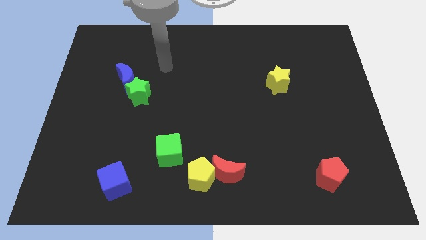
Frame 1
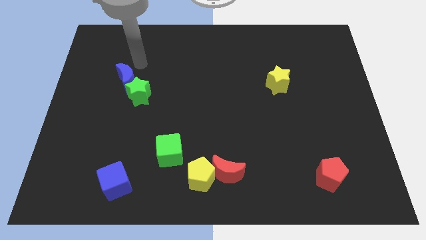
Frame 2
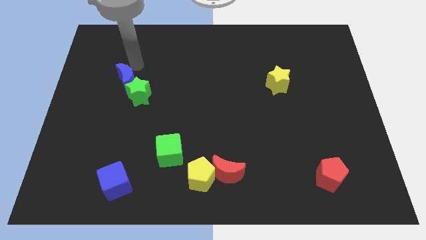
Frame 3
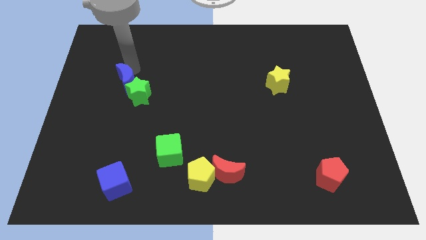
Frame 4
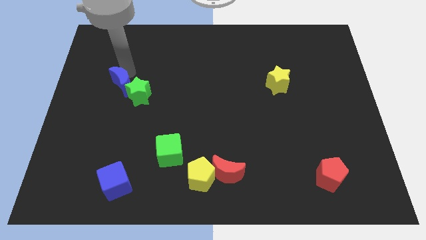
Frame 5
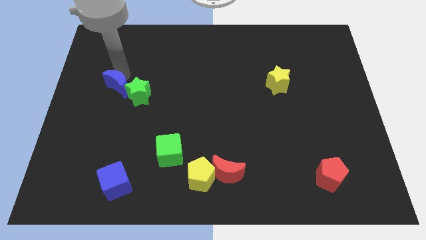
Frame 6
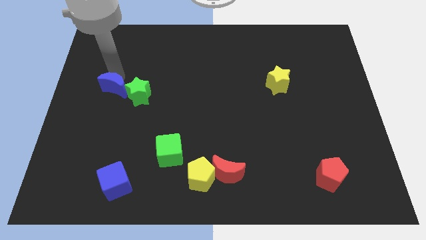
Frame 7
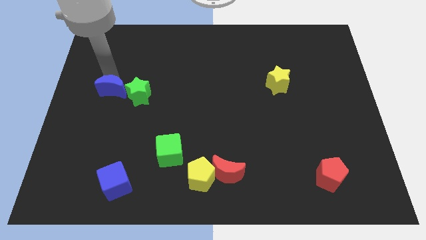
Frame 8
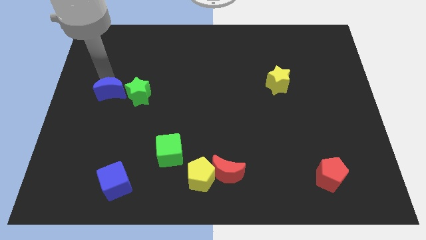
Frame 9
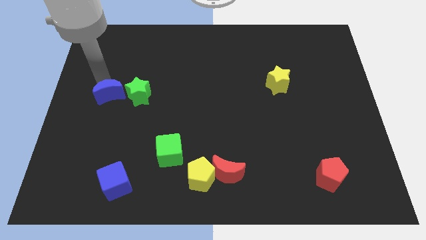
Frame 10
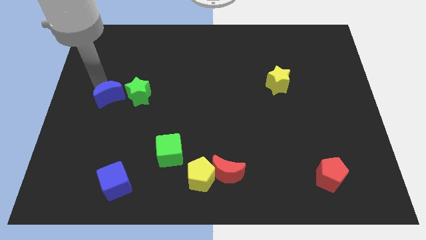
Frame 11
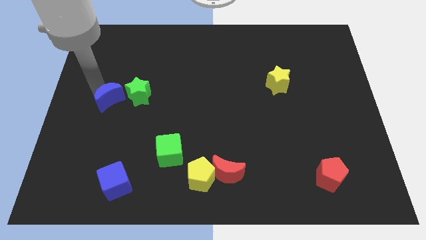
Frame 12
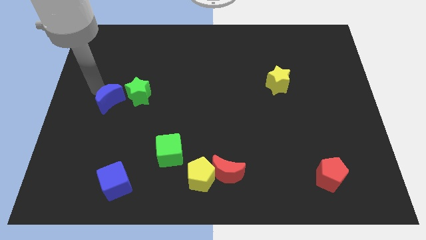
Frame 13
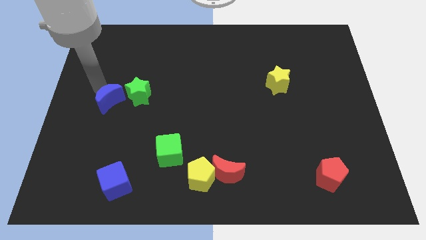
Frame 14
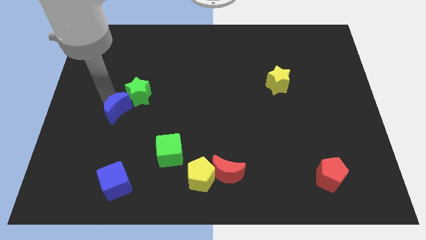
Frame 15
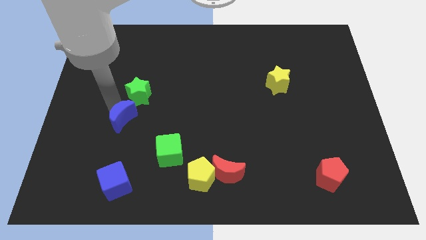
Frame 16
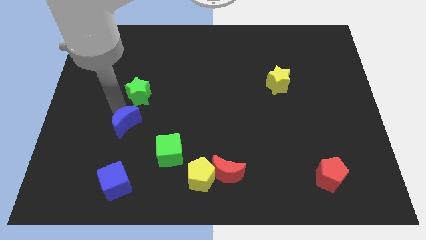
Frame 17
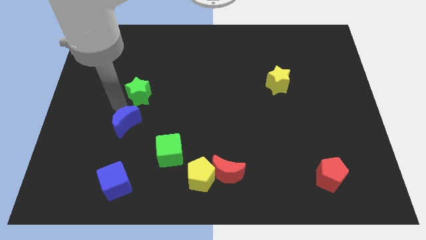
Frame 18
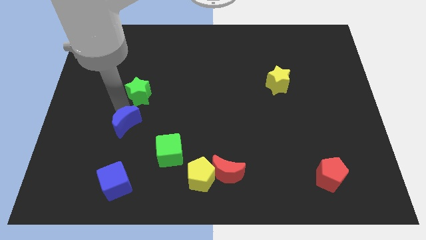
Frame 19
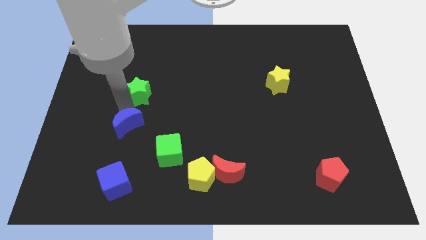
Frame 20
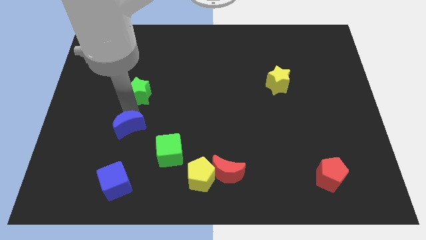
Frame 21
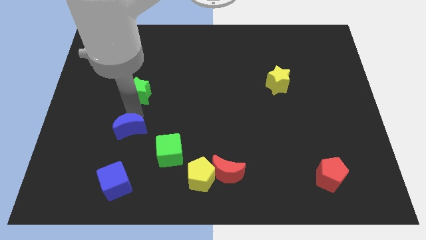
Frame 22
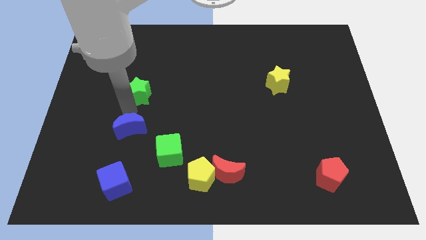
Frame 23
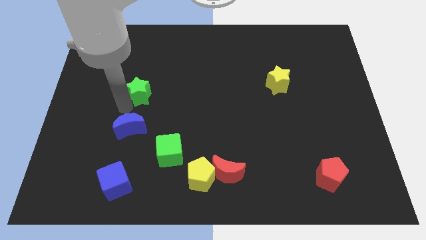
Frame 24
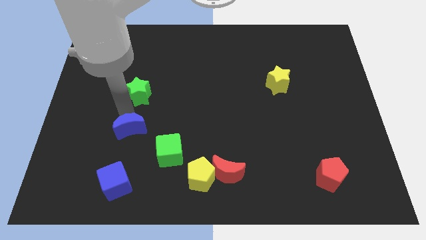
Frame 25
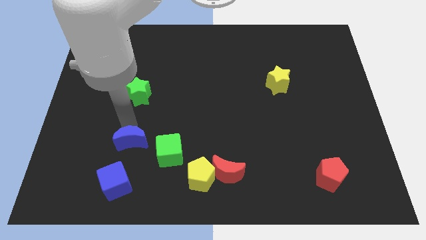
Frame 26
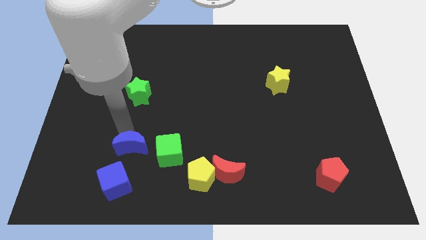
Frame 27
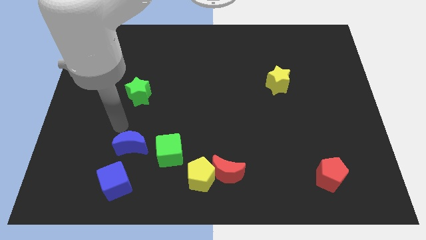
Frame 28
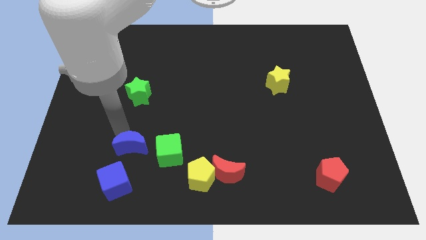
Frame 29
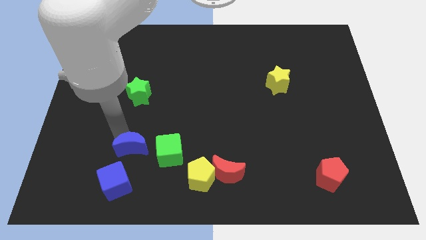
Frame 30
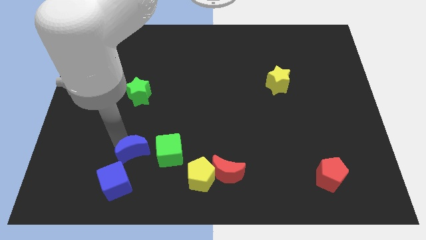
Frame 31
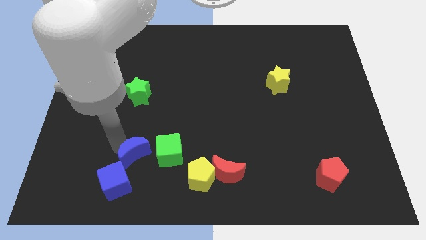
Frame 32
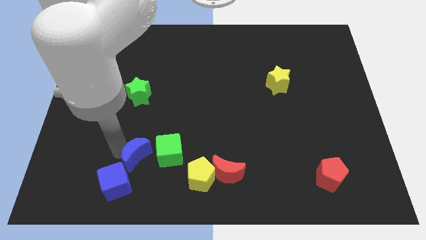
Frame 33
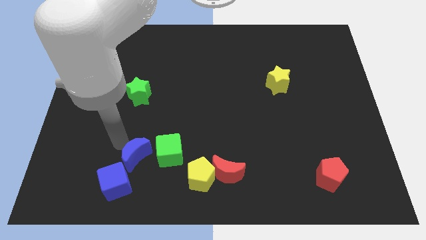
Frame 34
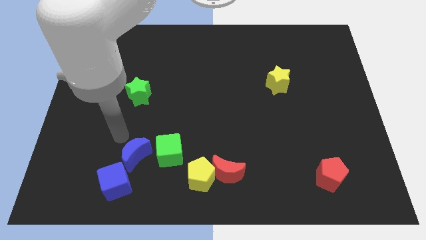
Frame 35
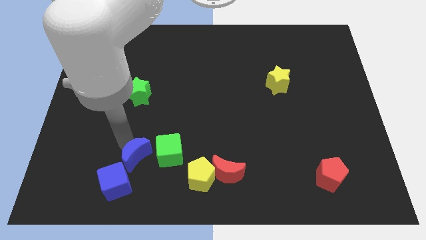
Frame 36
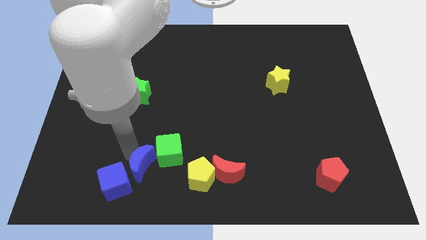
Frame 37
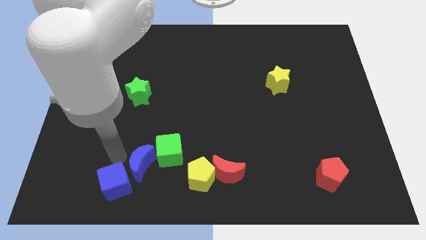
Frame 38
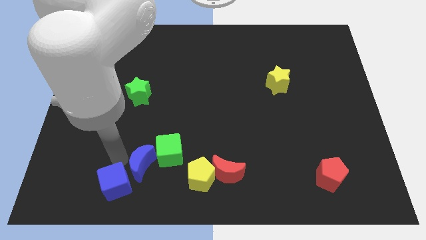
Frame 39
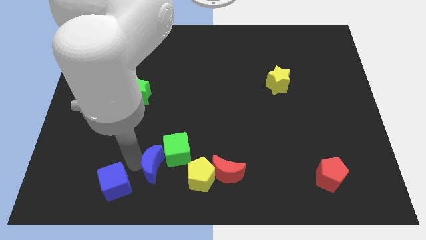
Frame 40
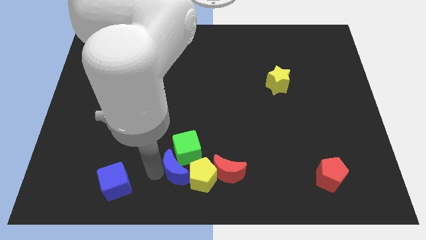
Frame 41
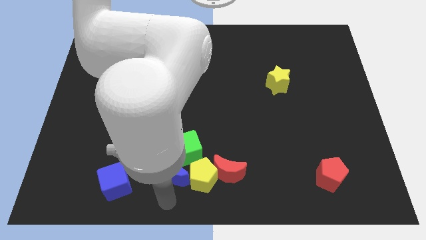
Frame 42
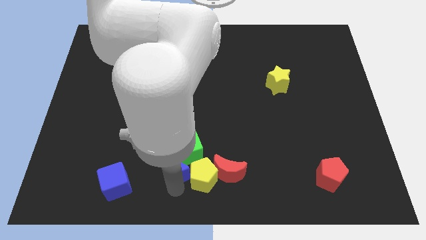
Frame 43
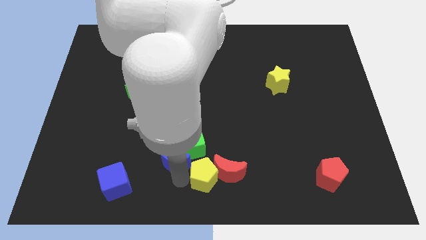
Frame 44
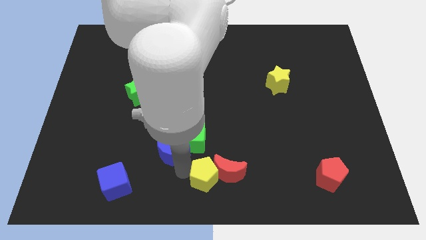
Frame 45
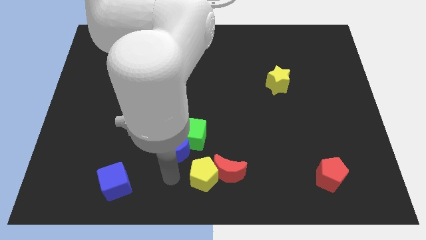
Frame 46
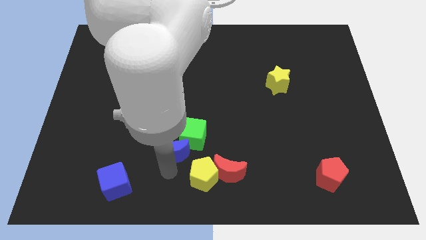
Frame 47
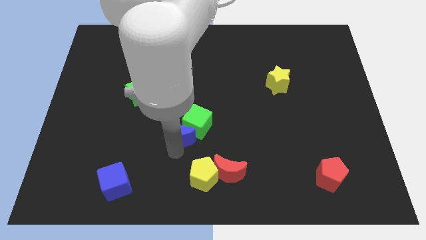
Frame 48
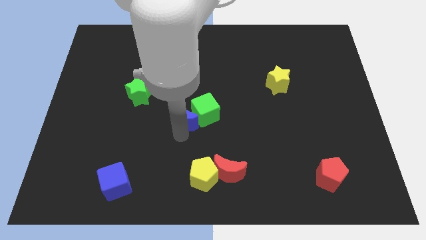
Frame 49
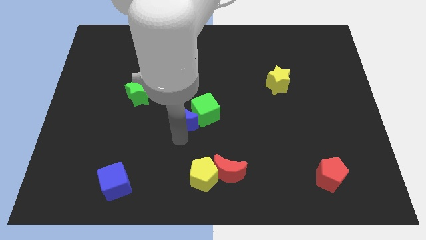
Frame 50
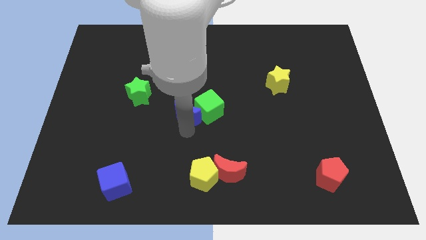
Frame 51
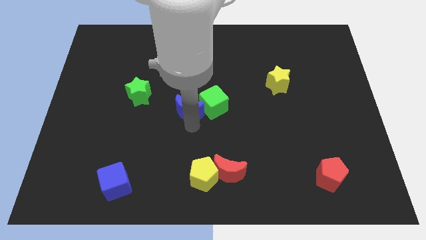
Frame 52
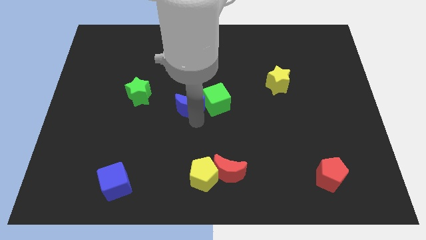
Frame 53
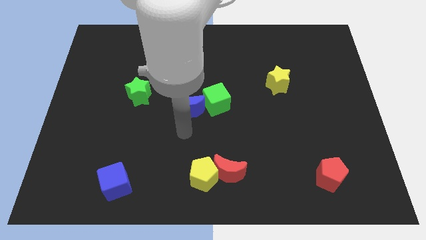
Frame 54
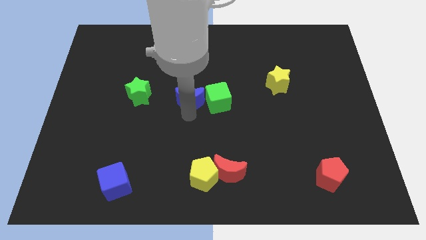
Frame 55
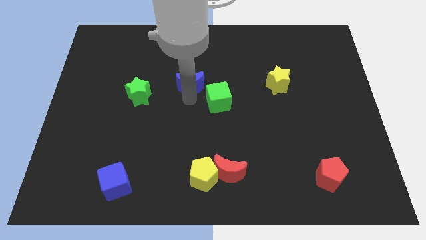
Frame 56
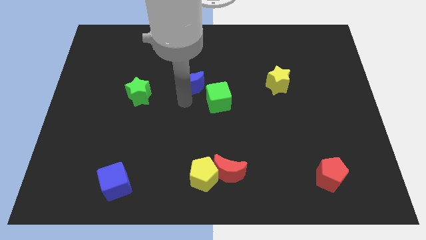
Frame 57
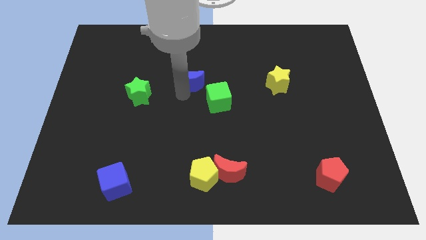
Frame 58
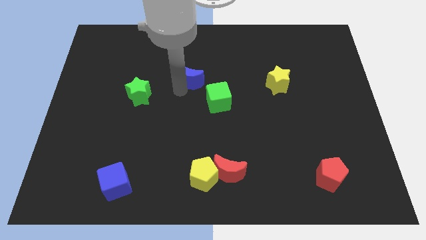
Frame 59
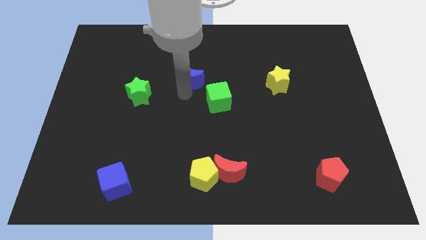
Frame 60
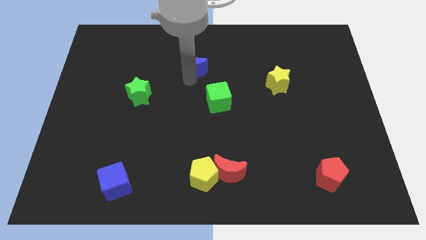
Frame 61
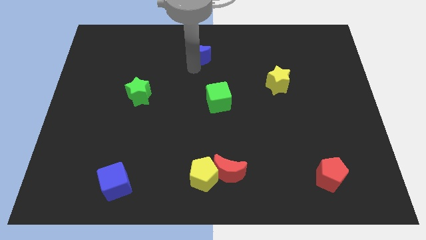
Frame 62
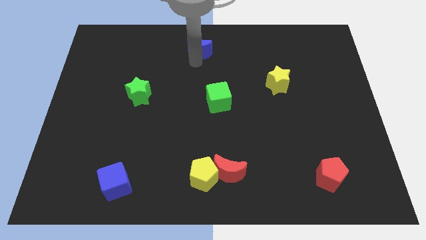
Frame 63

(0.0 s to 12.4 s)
slide the blue moon to the towards your base

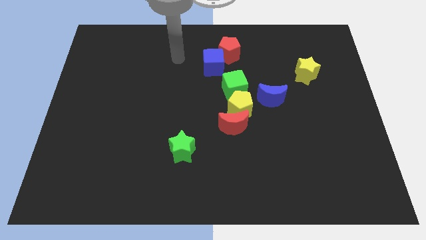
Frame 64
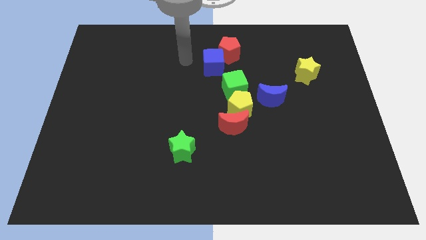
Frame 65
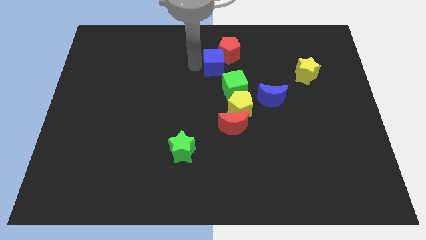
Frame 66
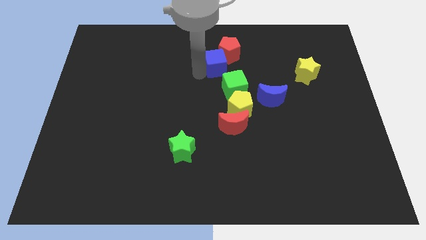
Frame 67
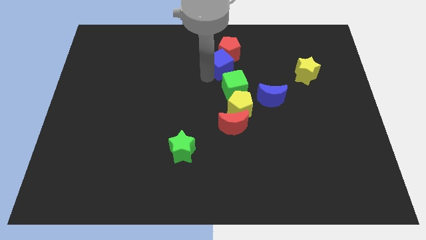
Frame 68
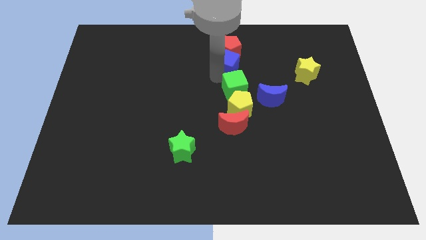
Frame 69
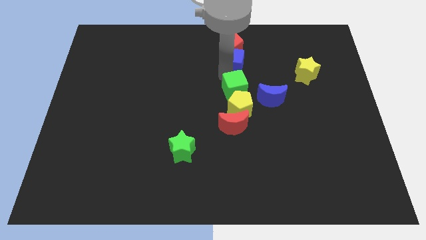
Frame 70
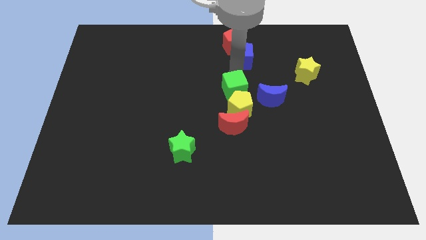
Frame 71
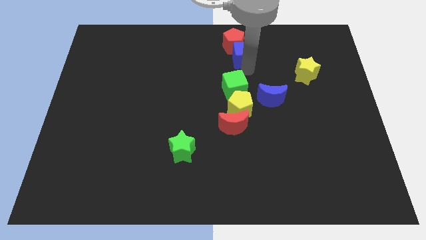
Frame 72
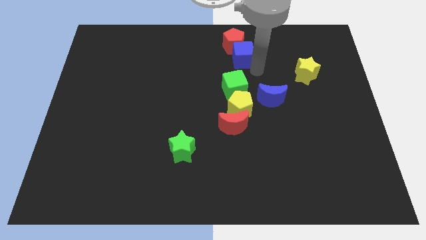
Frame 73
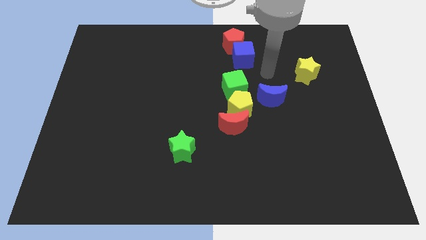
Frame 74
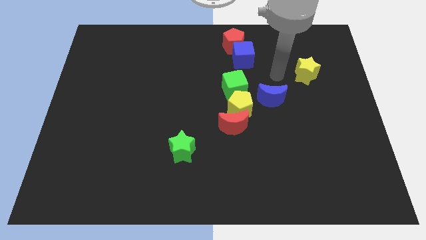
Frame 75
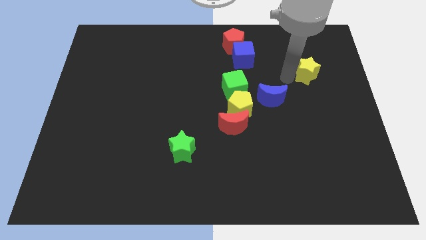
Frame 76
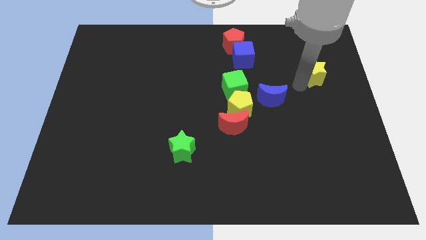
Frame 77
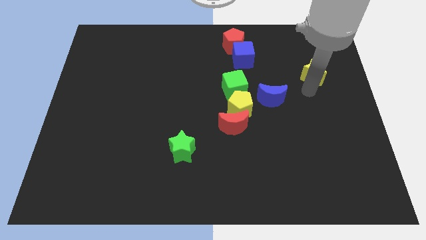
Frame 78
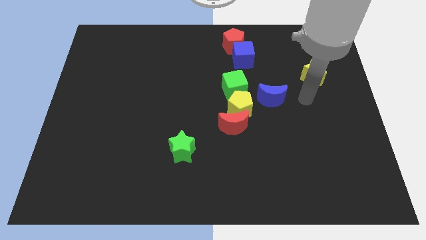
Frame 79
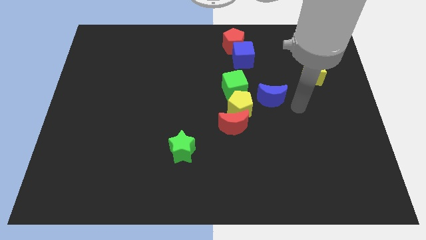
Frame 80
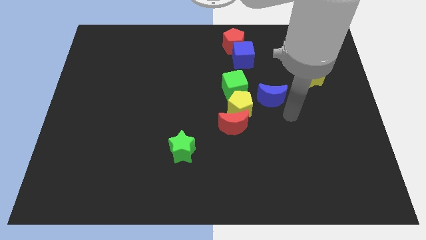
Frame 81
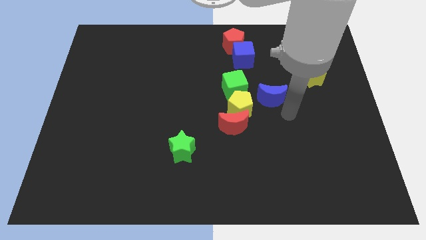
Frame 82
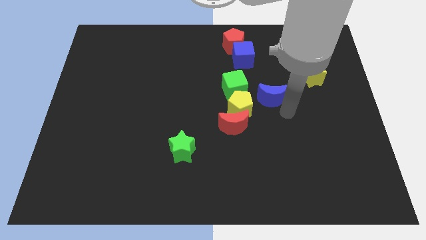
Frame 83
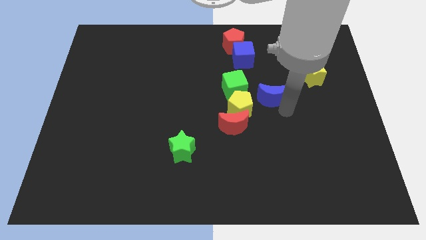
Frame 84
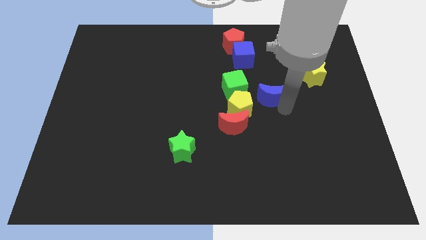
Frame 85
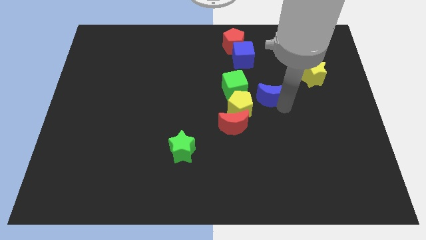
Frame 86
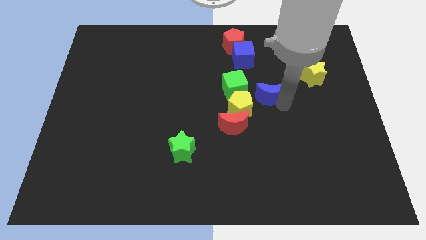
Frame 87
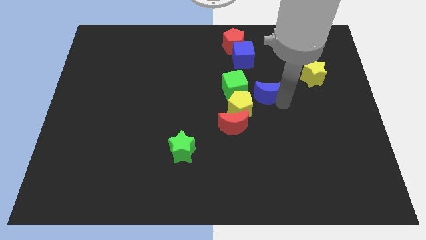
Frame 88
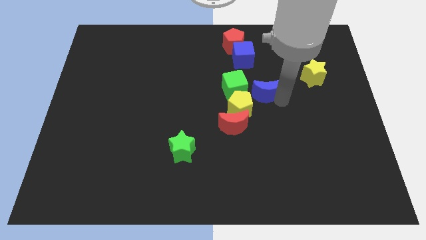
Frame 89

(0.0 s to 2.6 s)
put the blue moon to the middle
